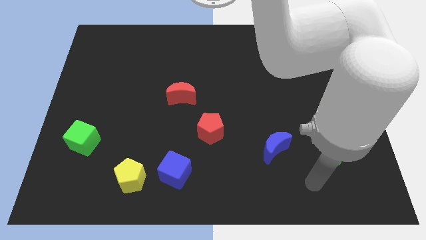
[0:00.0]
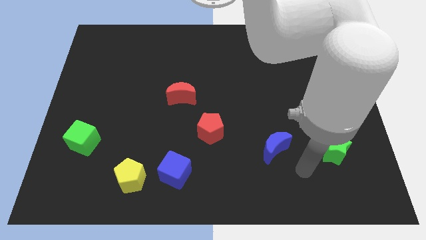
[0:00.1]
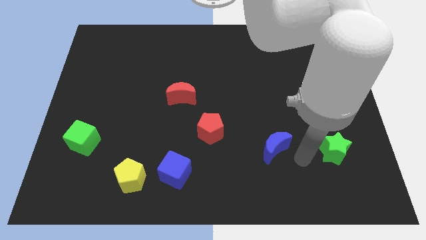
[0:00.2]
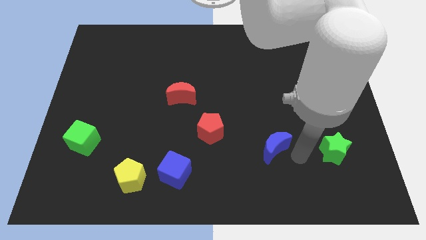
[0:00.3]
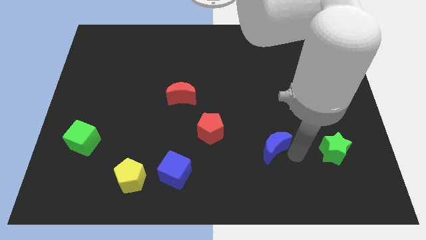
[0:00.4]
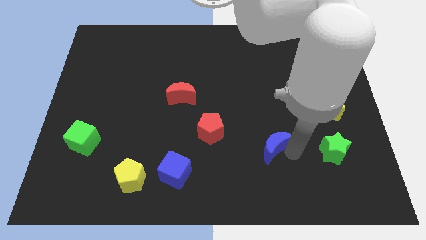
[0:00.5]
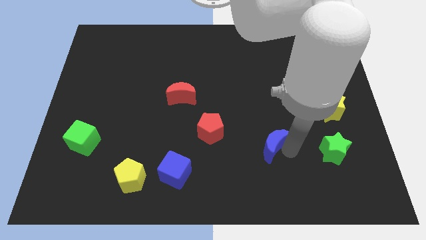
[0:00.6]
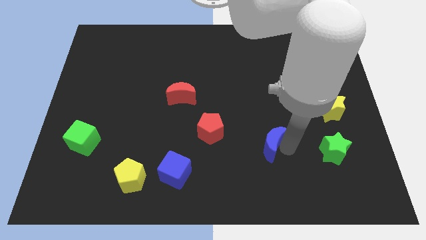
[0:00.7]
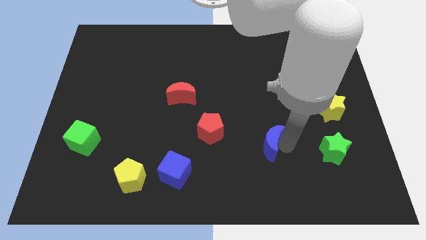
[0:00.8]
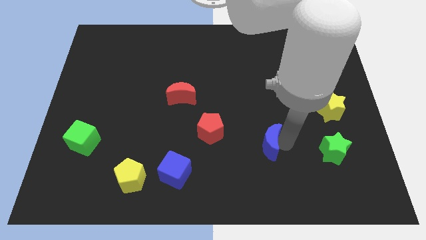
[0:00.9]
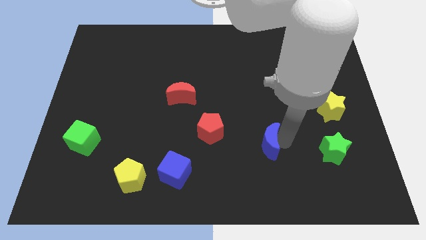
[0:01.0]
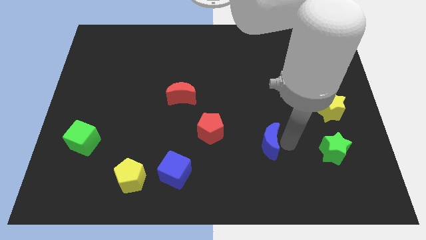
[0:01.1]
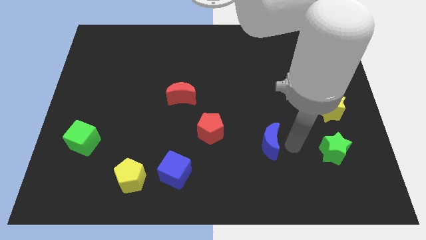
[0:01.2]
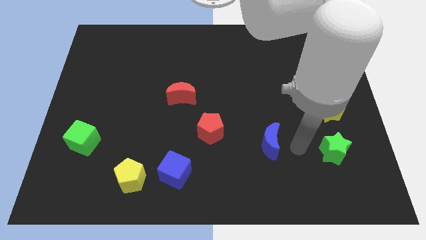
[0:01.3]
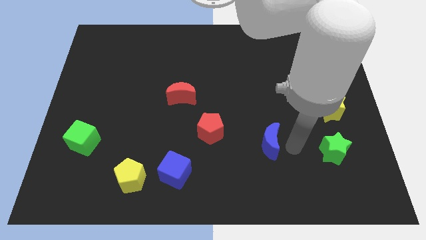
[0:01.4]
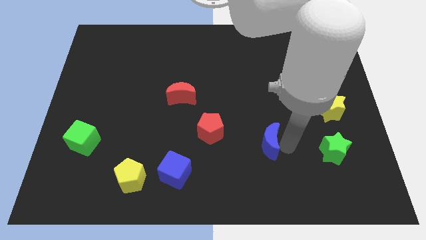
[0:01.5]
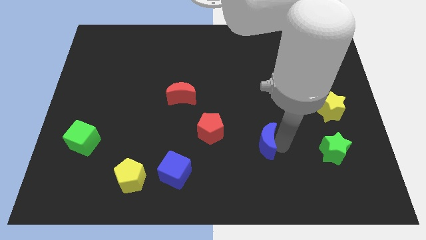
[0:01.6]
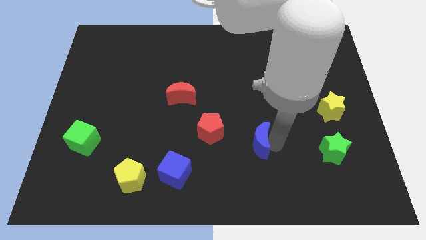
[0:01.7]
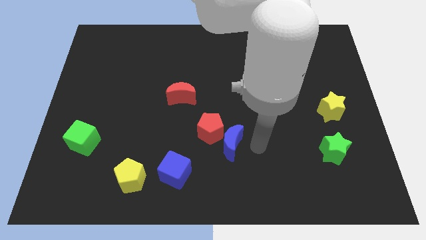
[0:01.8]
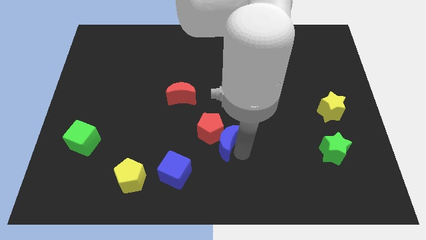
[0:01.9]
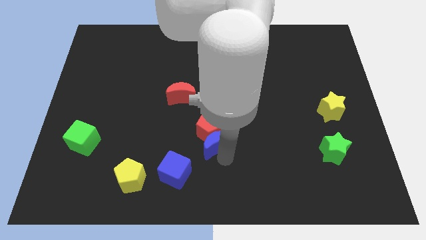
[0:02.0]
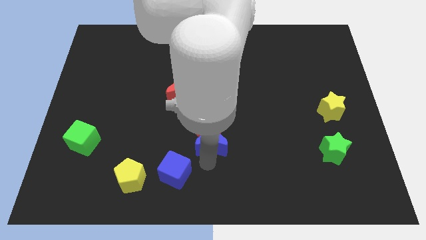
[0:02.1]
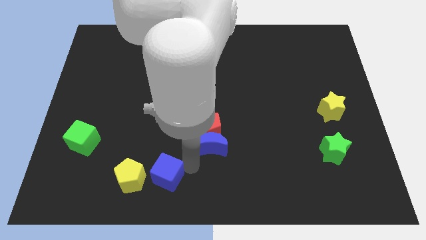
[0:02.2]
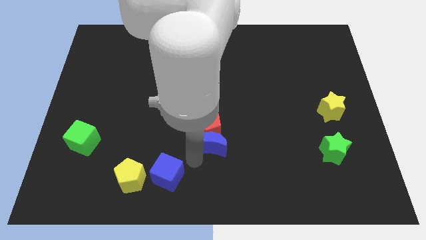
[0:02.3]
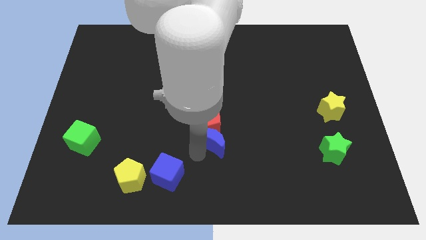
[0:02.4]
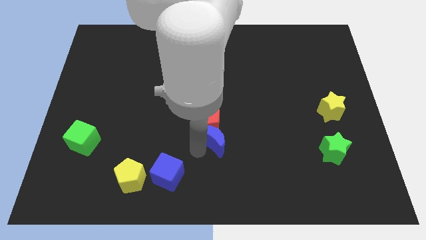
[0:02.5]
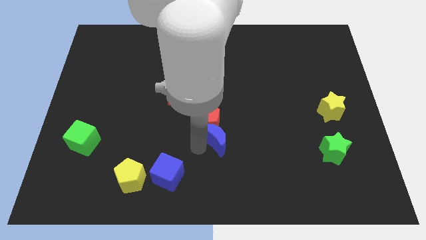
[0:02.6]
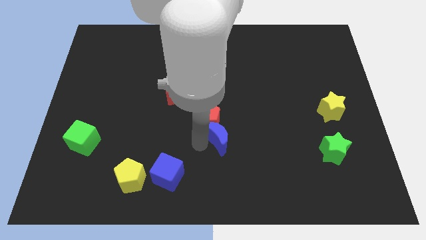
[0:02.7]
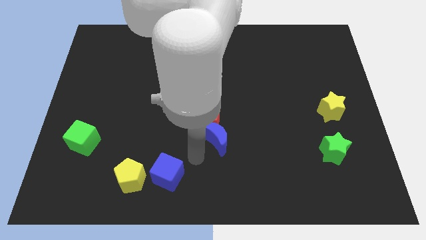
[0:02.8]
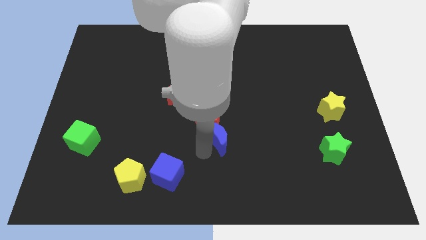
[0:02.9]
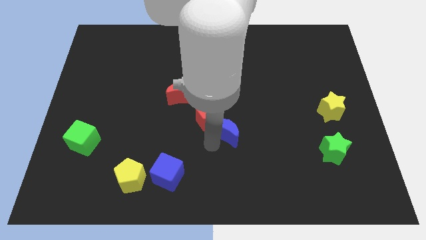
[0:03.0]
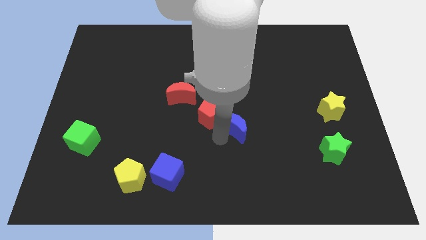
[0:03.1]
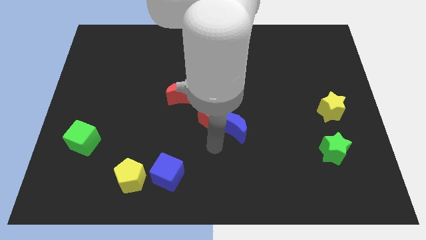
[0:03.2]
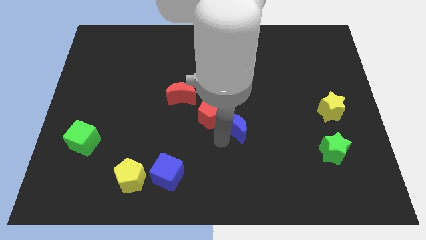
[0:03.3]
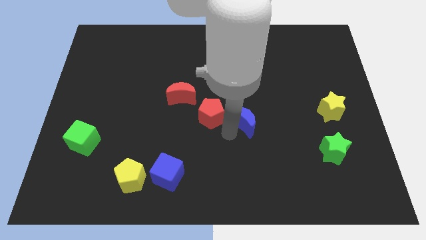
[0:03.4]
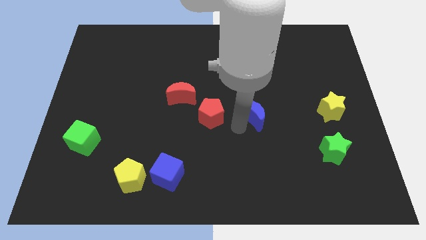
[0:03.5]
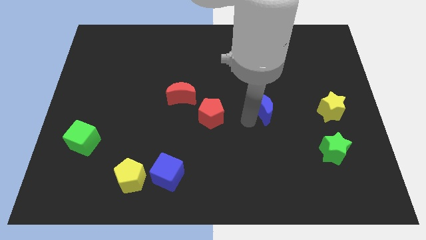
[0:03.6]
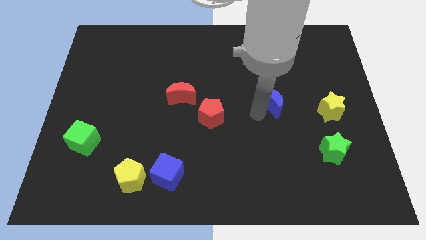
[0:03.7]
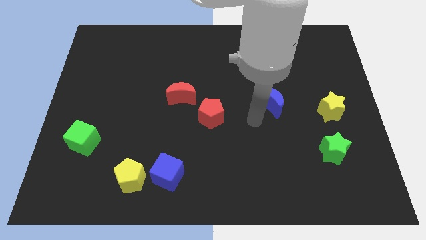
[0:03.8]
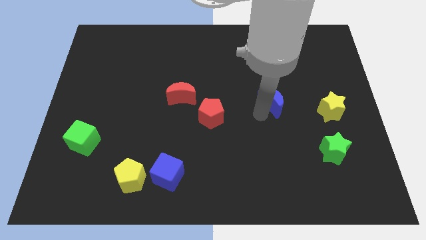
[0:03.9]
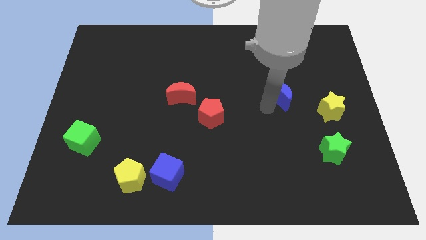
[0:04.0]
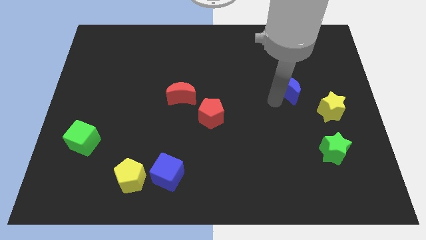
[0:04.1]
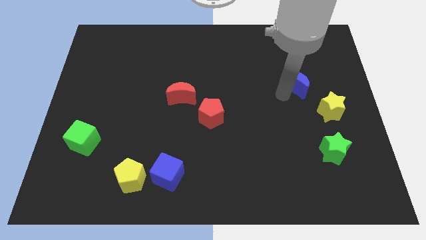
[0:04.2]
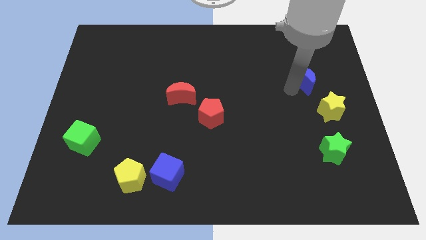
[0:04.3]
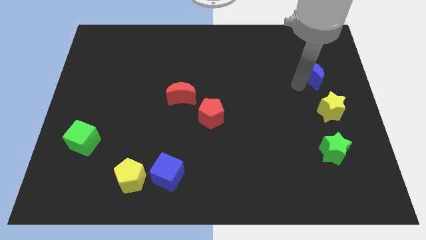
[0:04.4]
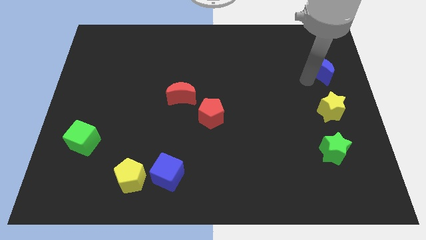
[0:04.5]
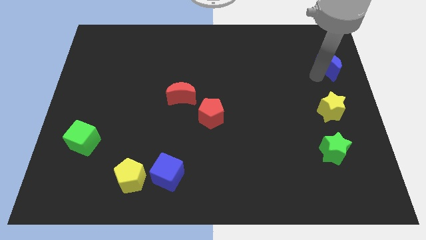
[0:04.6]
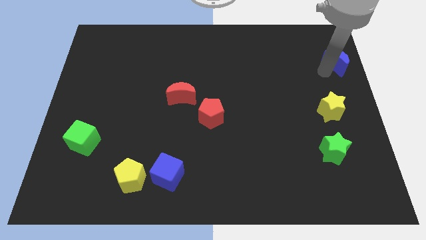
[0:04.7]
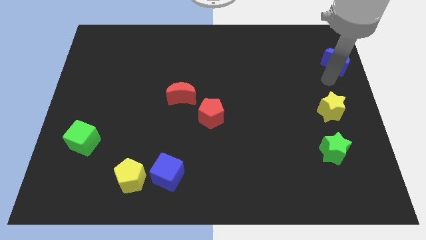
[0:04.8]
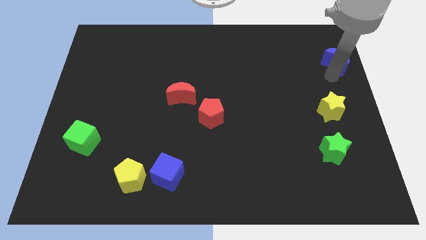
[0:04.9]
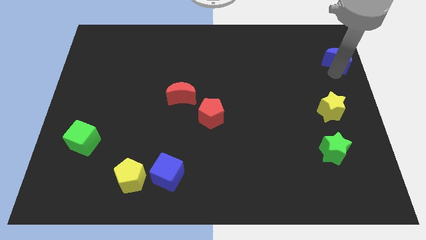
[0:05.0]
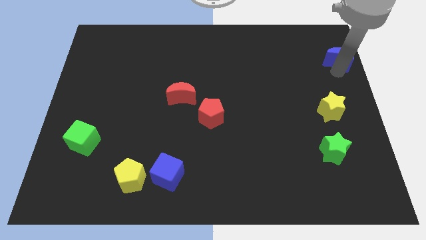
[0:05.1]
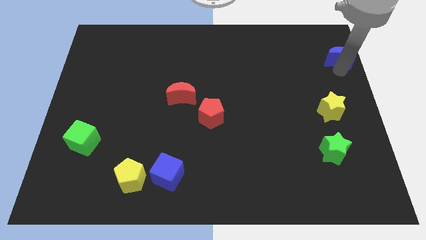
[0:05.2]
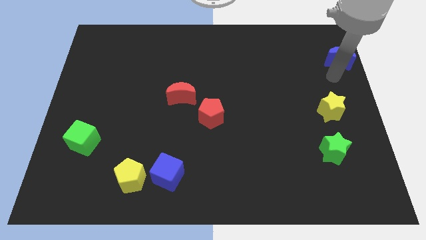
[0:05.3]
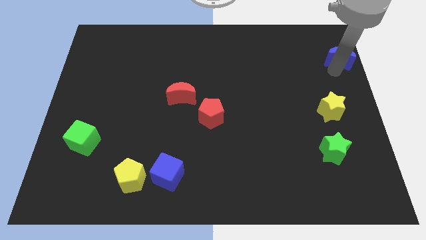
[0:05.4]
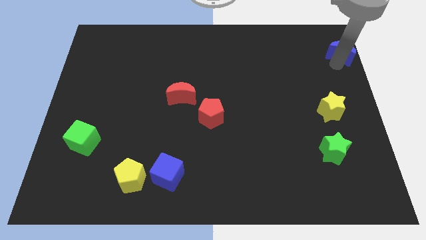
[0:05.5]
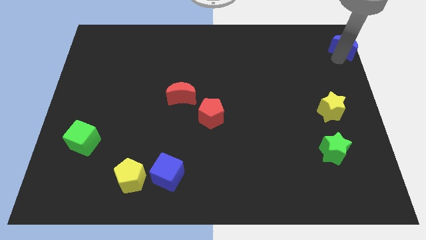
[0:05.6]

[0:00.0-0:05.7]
slide the blue moon to the top right corner

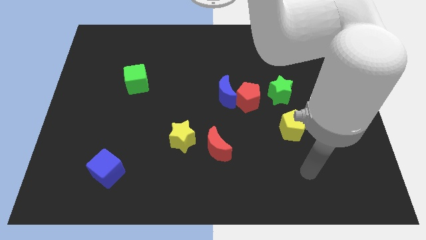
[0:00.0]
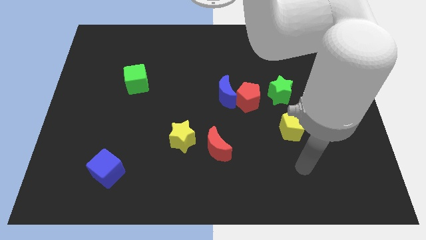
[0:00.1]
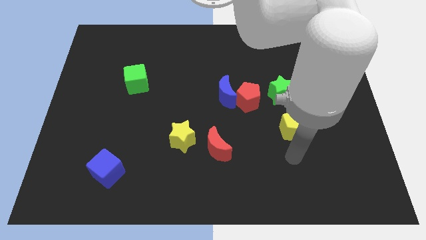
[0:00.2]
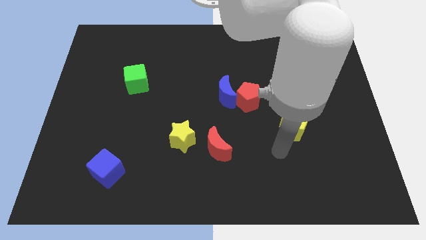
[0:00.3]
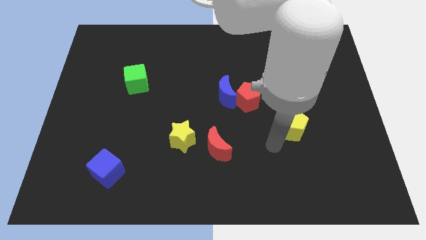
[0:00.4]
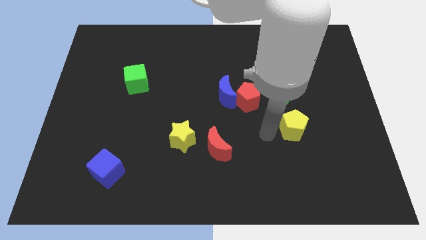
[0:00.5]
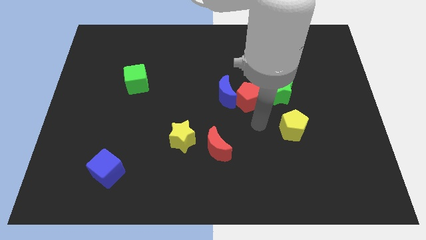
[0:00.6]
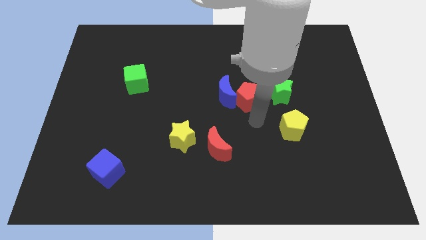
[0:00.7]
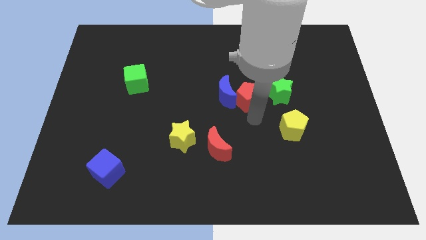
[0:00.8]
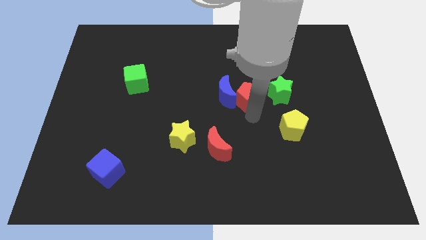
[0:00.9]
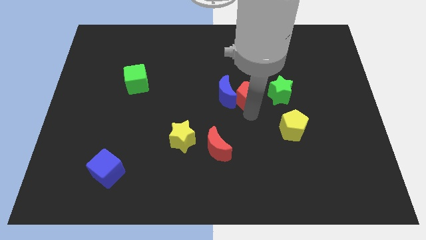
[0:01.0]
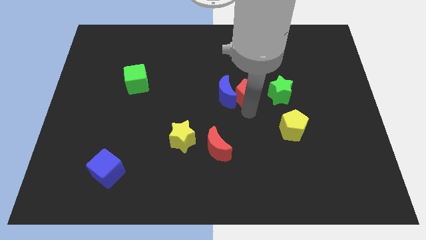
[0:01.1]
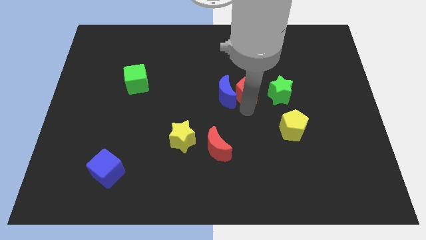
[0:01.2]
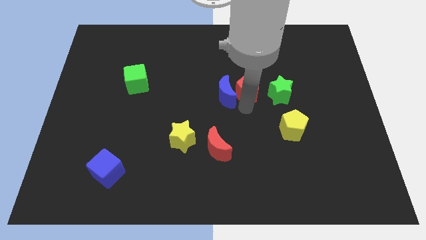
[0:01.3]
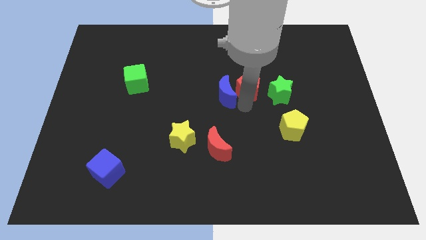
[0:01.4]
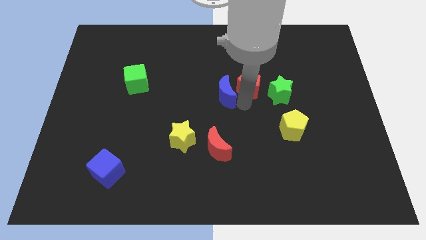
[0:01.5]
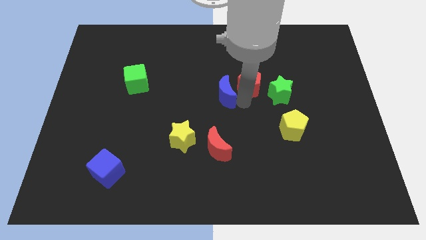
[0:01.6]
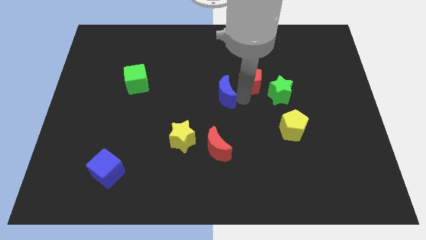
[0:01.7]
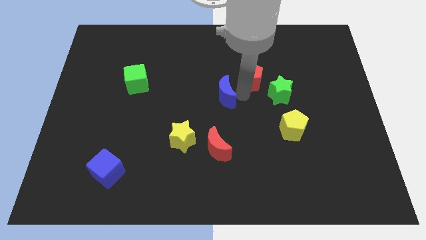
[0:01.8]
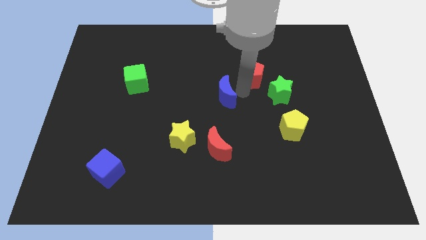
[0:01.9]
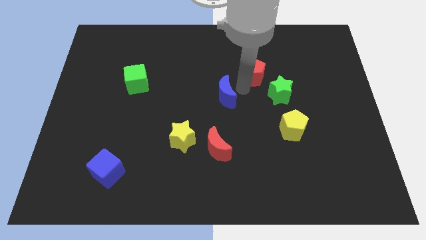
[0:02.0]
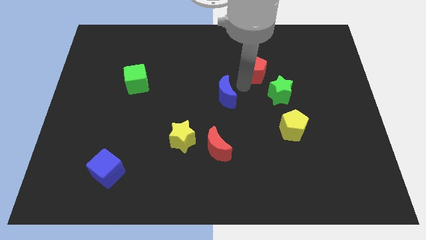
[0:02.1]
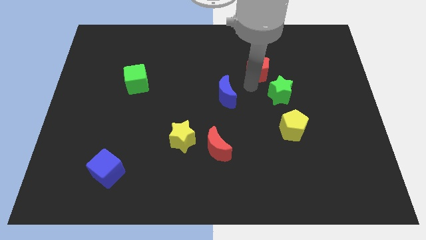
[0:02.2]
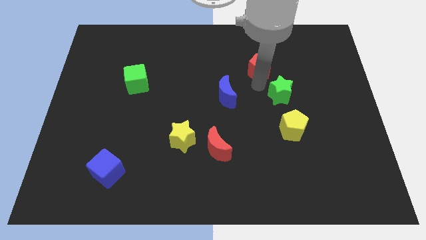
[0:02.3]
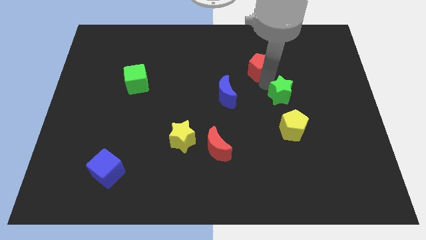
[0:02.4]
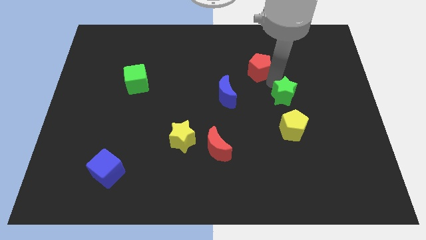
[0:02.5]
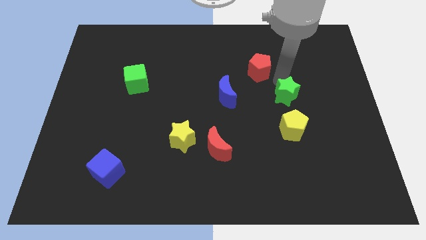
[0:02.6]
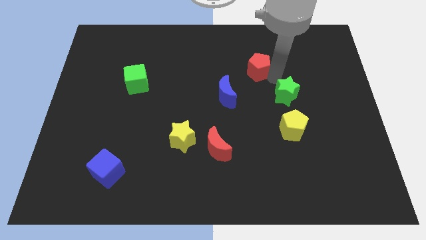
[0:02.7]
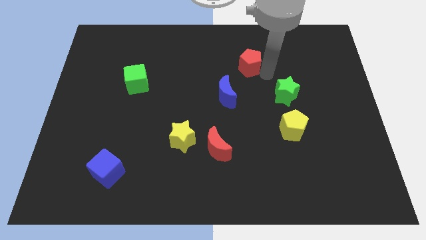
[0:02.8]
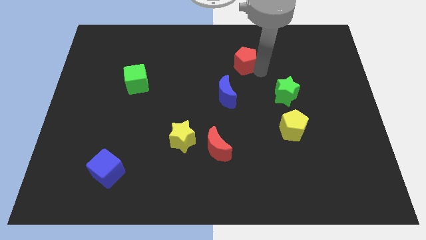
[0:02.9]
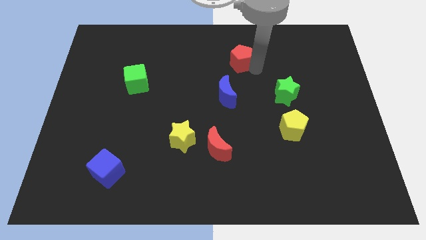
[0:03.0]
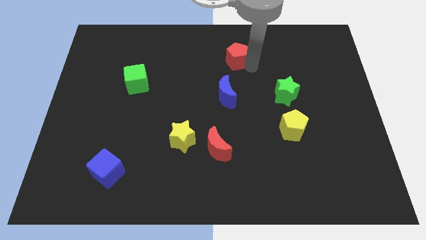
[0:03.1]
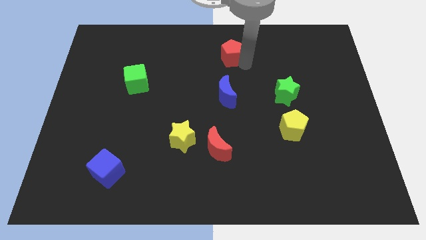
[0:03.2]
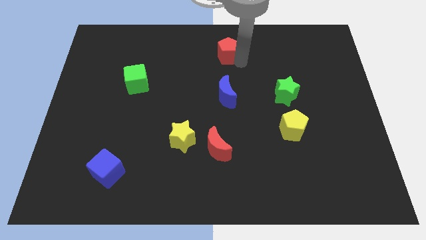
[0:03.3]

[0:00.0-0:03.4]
move the red pentagon to the towards your base
